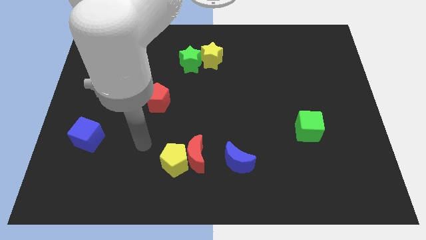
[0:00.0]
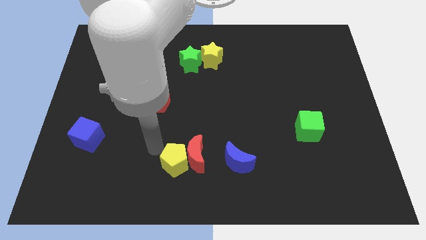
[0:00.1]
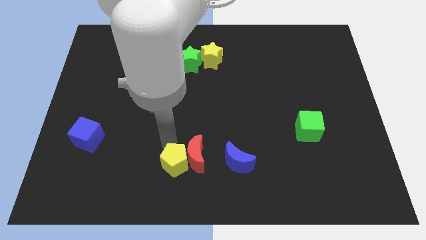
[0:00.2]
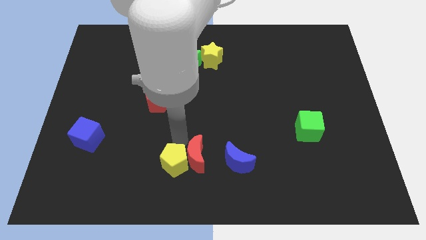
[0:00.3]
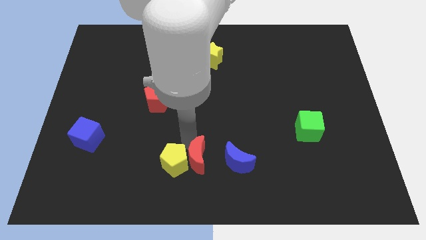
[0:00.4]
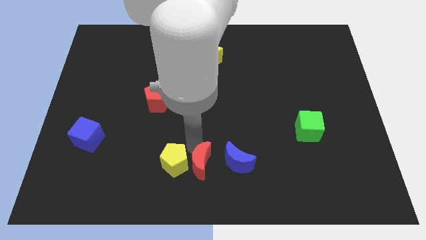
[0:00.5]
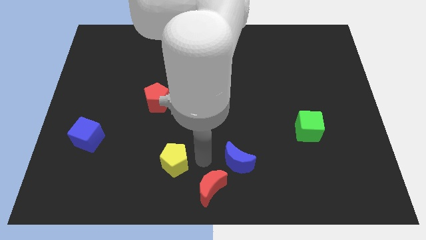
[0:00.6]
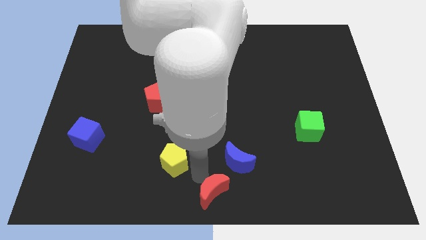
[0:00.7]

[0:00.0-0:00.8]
pull the yellow pentagon apart from the red moon

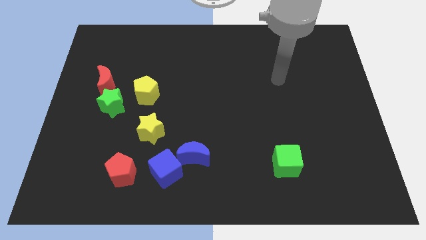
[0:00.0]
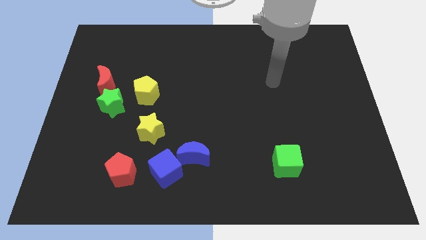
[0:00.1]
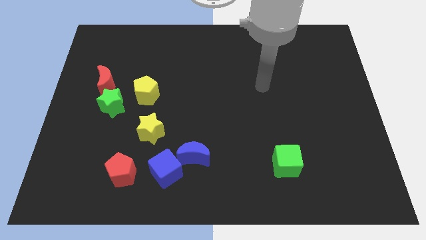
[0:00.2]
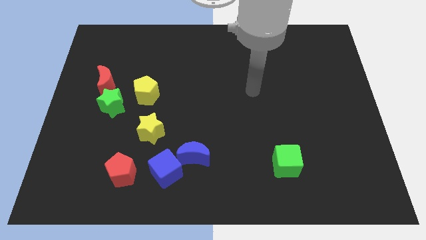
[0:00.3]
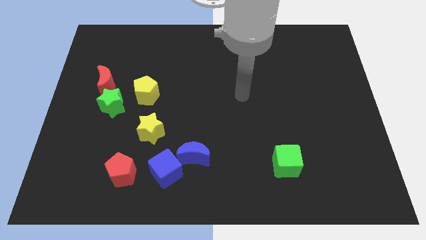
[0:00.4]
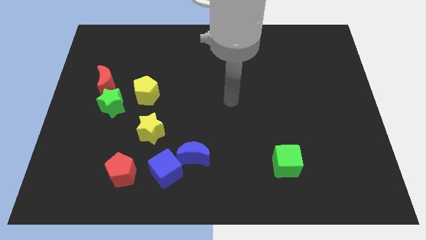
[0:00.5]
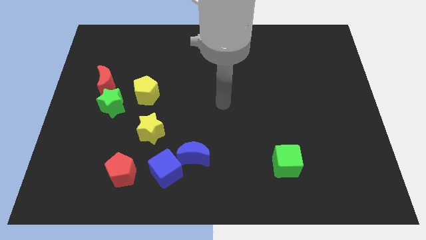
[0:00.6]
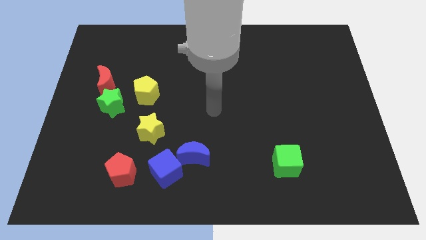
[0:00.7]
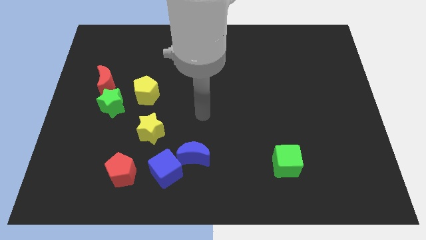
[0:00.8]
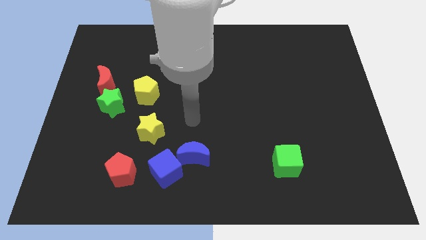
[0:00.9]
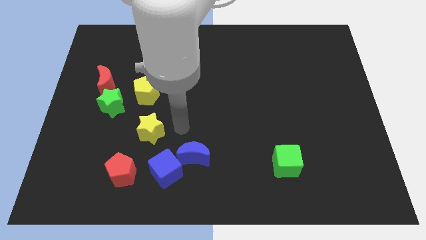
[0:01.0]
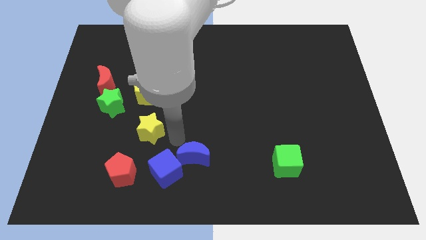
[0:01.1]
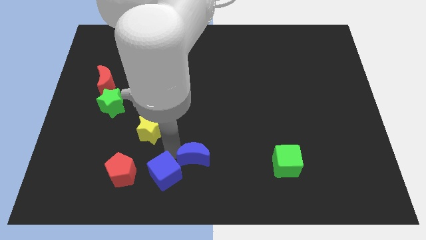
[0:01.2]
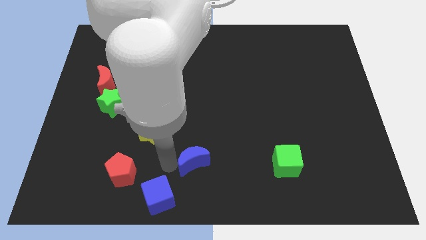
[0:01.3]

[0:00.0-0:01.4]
pull the blue moon apart from the blue cube

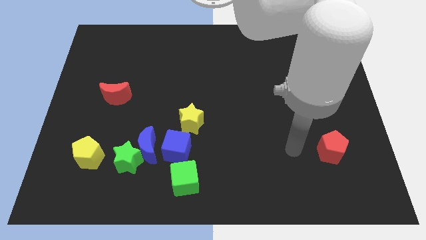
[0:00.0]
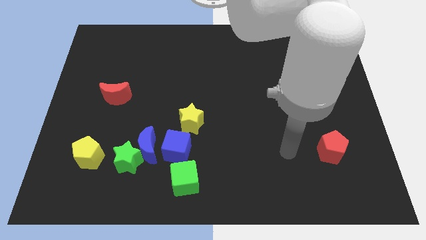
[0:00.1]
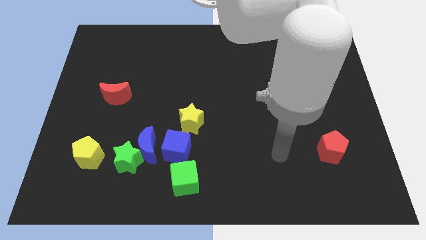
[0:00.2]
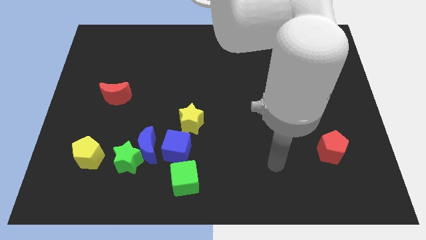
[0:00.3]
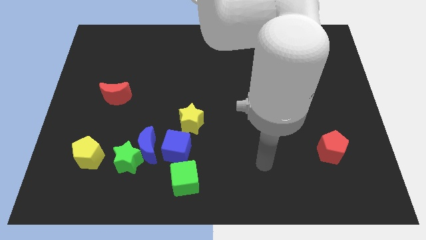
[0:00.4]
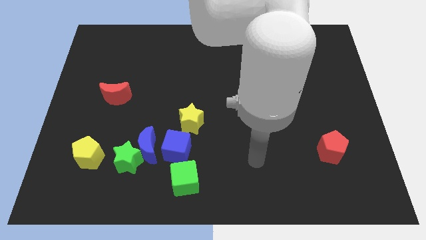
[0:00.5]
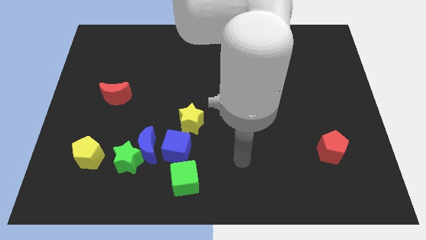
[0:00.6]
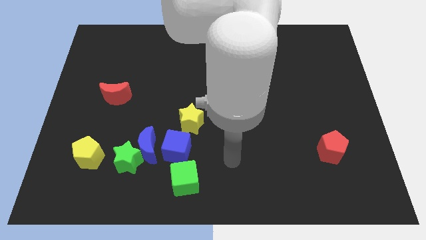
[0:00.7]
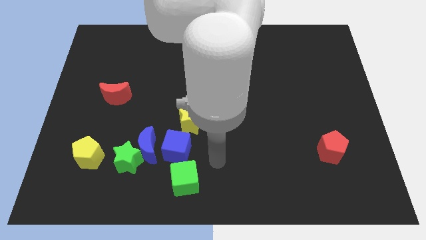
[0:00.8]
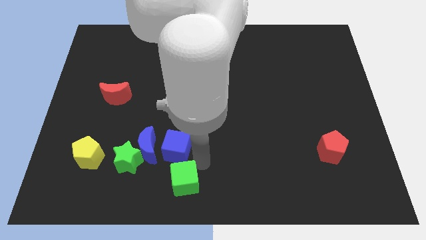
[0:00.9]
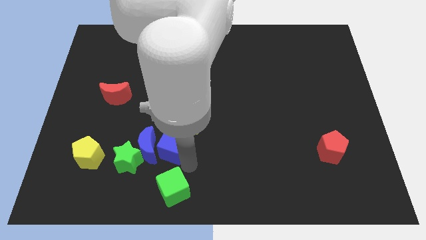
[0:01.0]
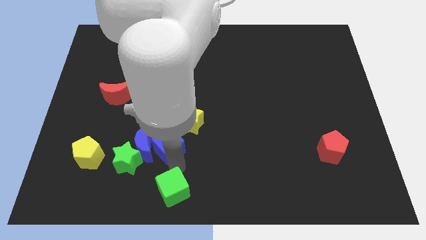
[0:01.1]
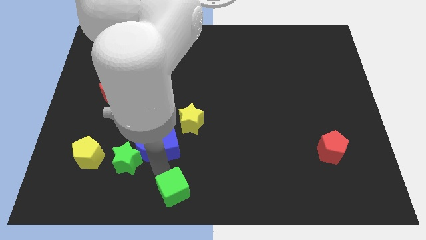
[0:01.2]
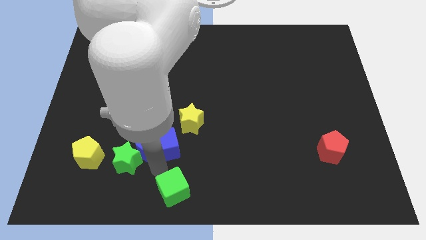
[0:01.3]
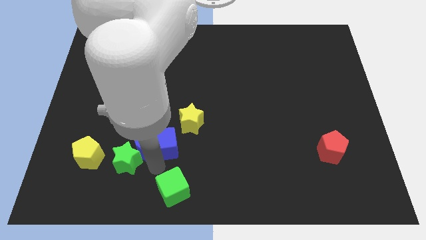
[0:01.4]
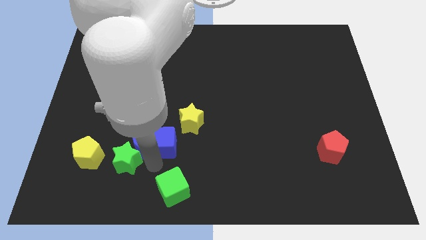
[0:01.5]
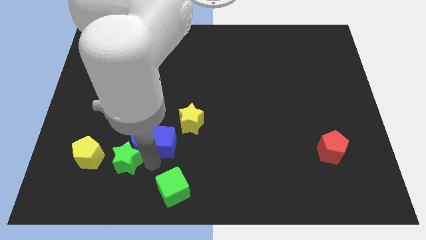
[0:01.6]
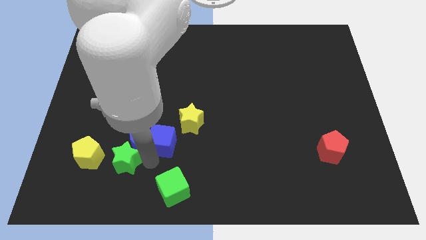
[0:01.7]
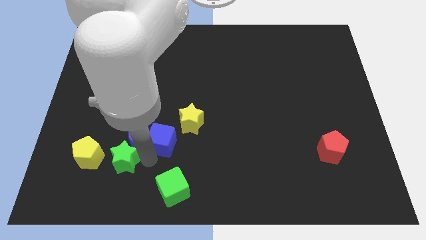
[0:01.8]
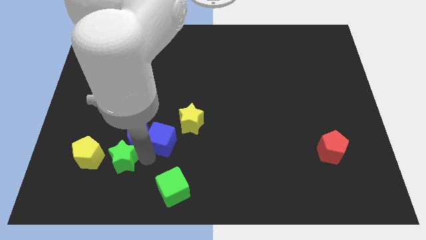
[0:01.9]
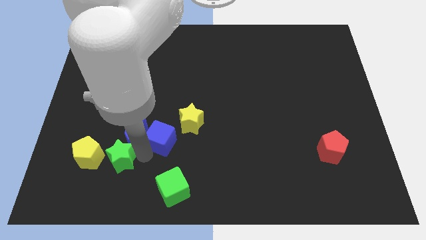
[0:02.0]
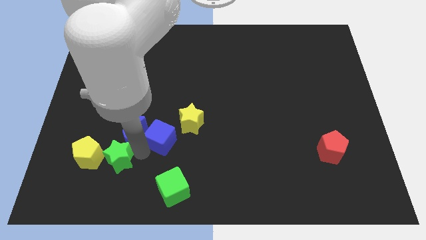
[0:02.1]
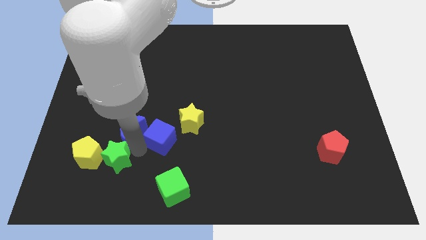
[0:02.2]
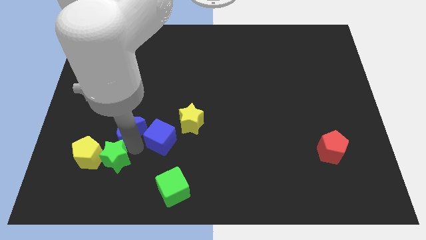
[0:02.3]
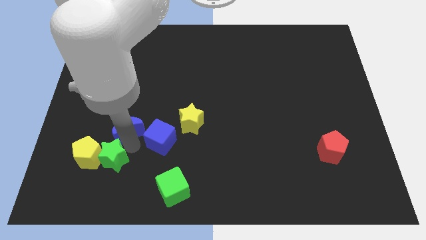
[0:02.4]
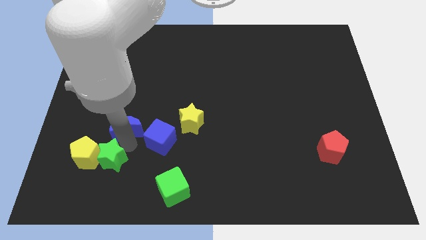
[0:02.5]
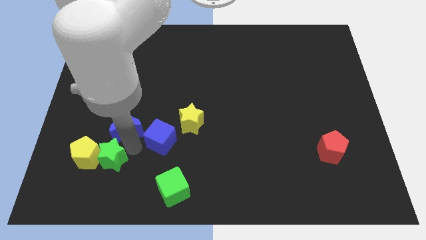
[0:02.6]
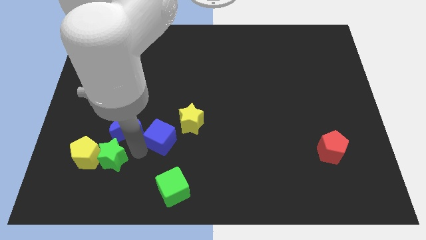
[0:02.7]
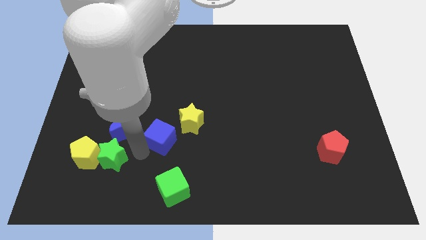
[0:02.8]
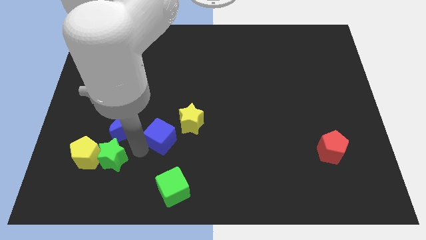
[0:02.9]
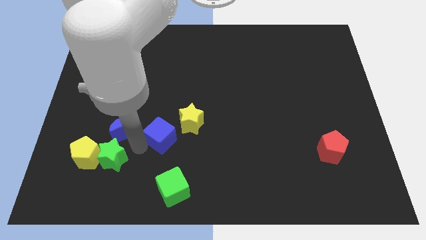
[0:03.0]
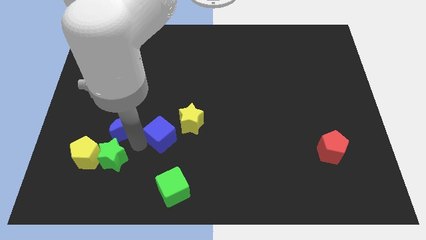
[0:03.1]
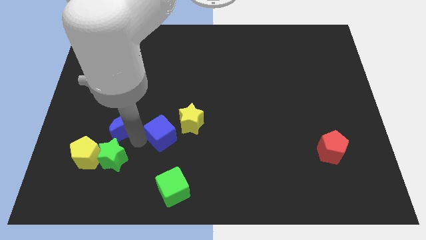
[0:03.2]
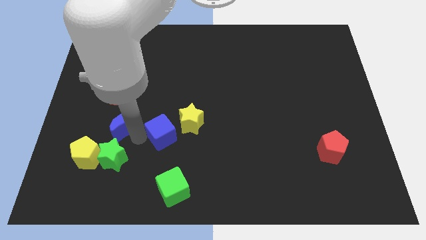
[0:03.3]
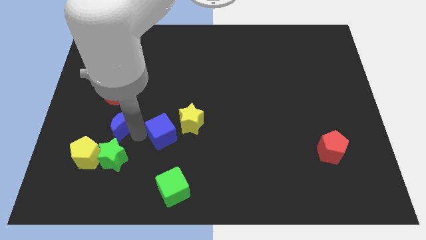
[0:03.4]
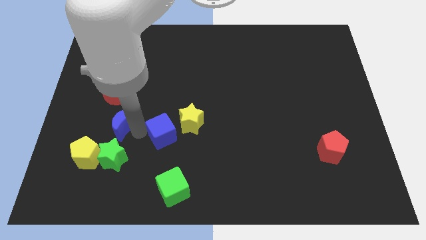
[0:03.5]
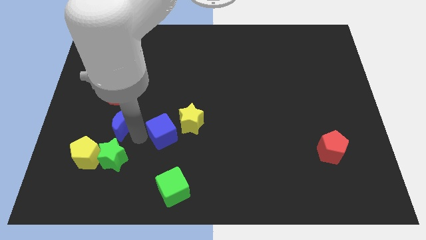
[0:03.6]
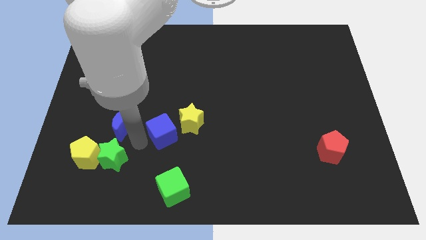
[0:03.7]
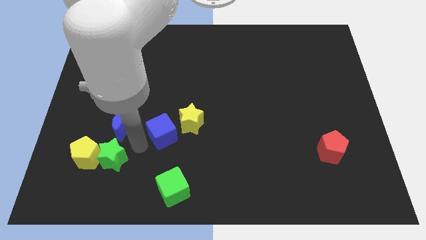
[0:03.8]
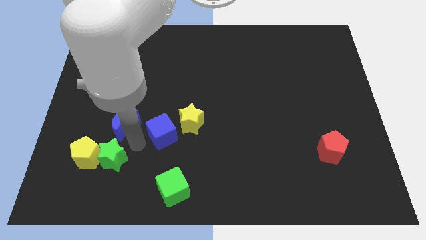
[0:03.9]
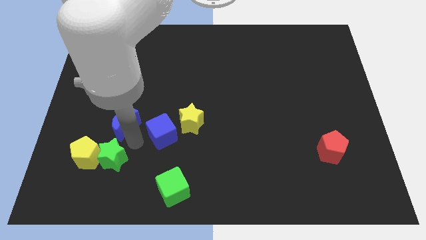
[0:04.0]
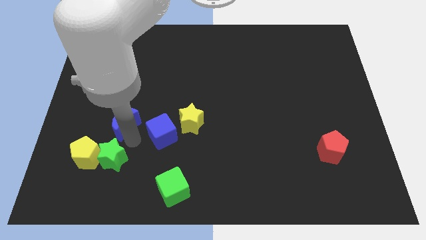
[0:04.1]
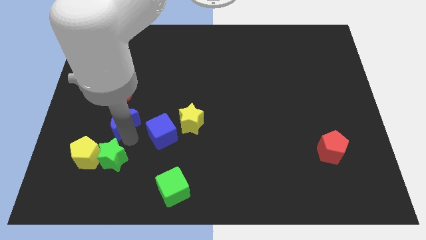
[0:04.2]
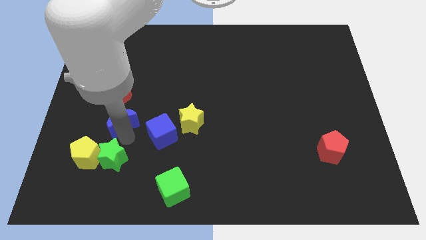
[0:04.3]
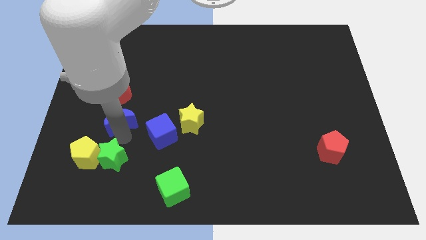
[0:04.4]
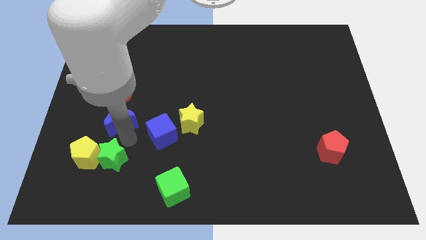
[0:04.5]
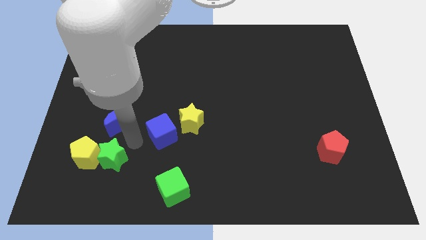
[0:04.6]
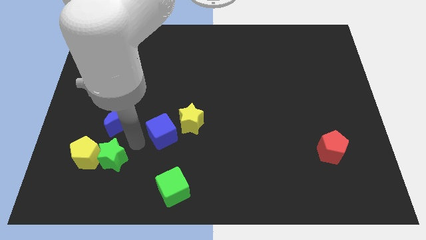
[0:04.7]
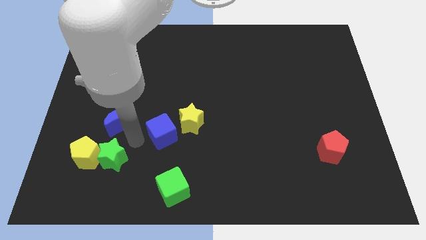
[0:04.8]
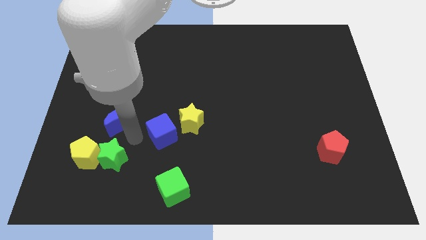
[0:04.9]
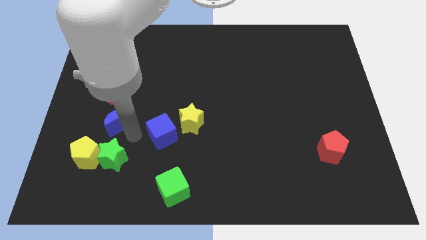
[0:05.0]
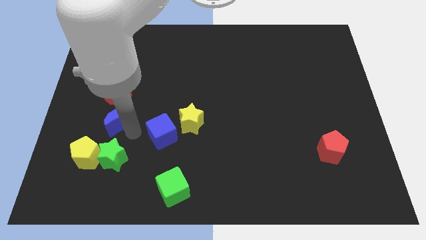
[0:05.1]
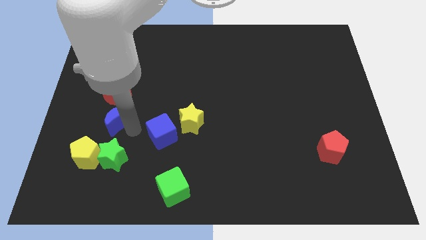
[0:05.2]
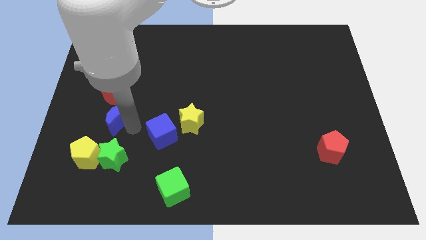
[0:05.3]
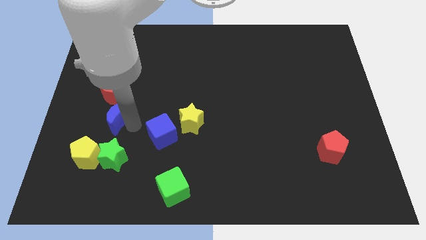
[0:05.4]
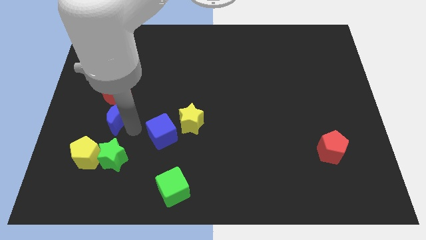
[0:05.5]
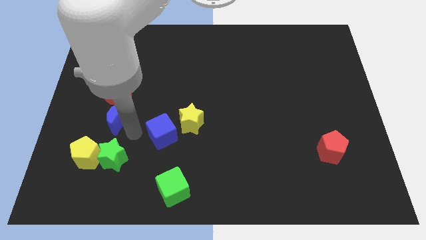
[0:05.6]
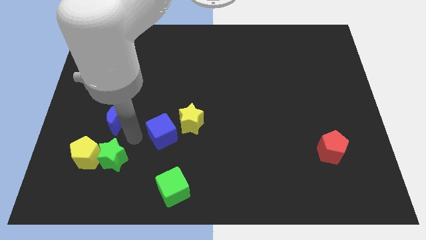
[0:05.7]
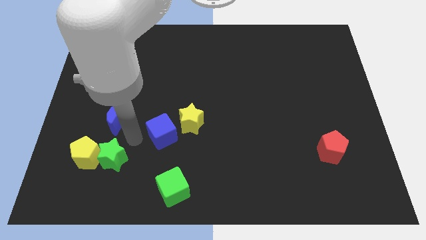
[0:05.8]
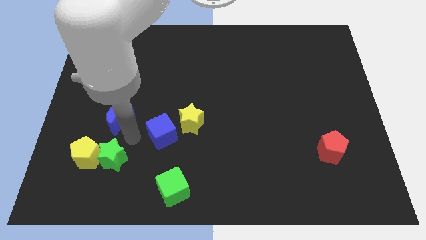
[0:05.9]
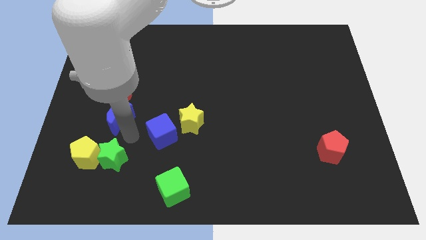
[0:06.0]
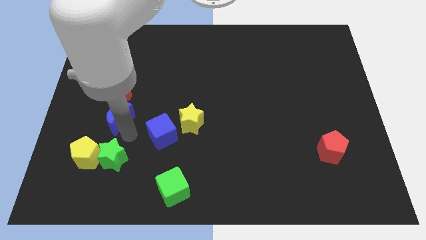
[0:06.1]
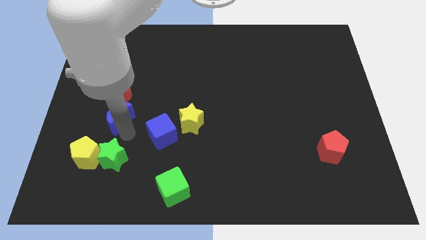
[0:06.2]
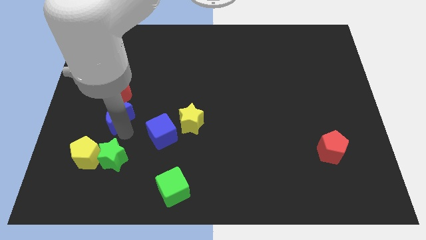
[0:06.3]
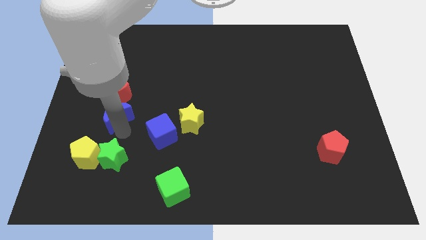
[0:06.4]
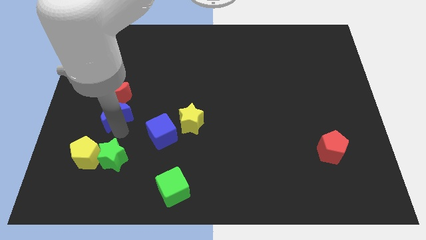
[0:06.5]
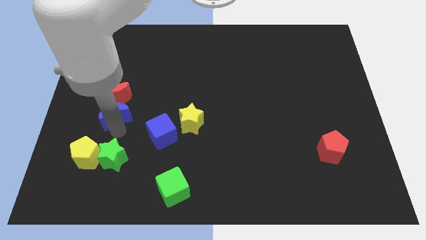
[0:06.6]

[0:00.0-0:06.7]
move the blue moon away from the green star and blue cube

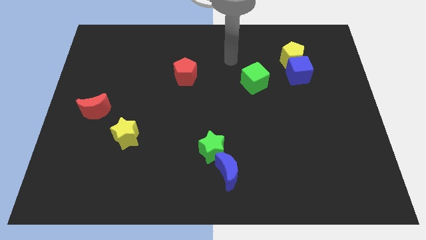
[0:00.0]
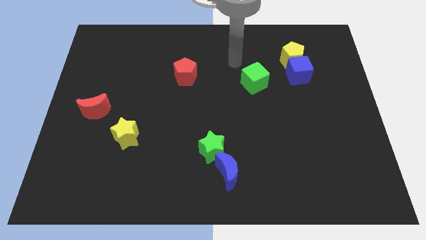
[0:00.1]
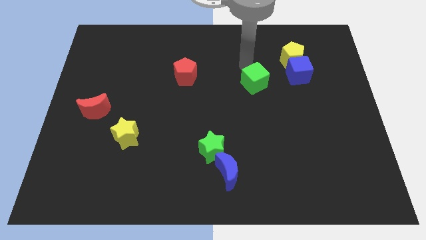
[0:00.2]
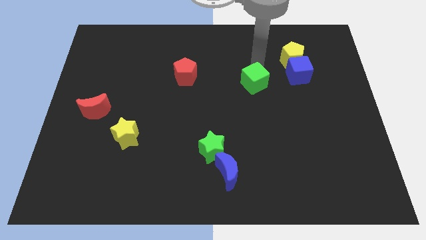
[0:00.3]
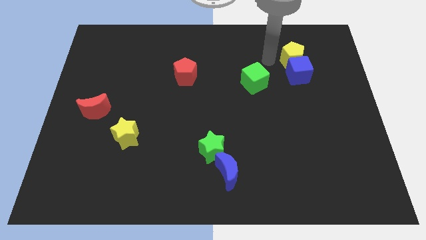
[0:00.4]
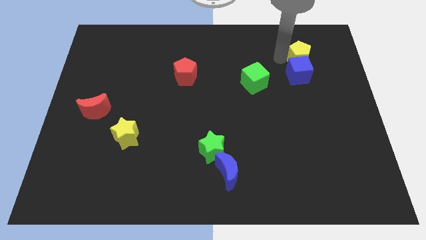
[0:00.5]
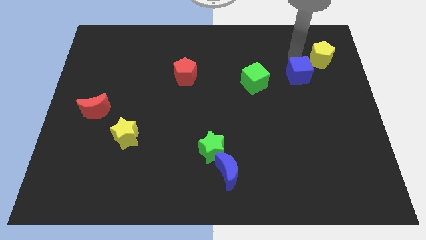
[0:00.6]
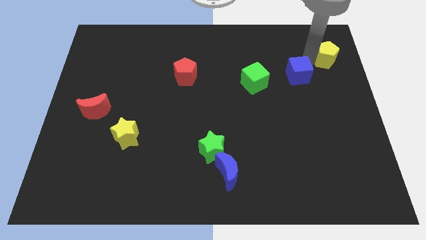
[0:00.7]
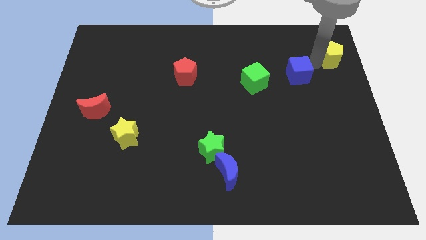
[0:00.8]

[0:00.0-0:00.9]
pull the blue cube apart from the yellow pentagon
